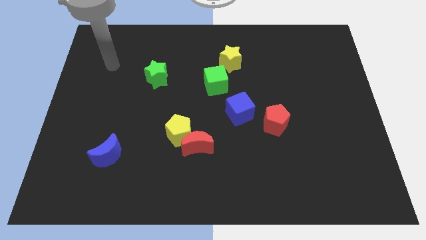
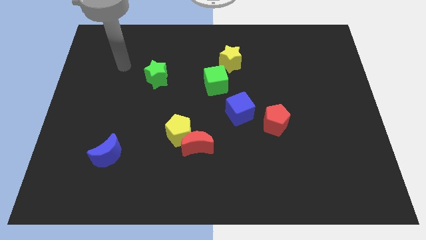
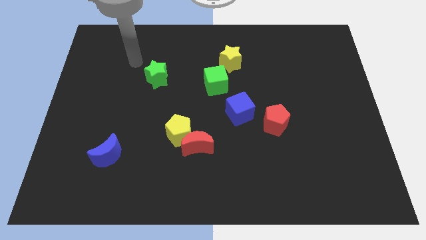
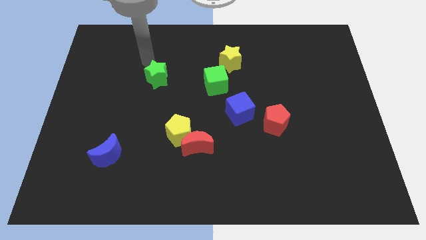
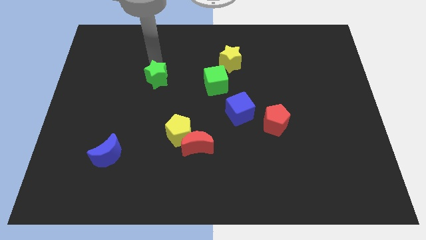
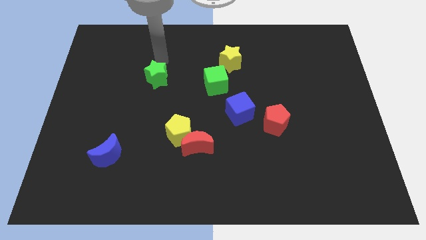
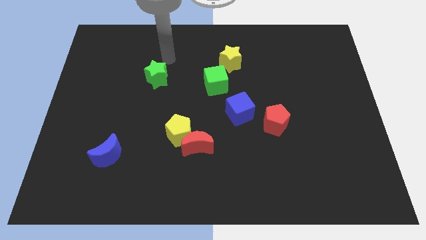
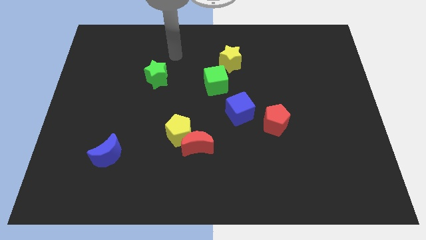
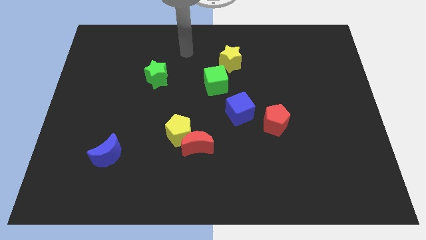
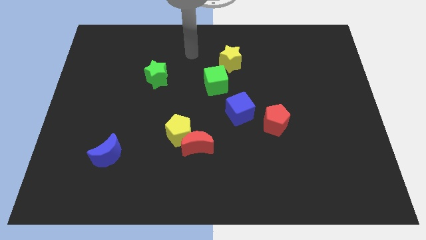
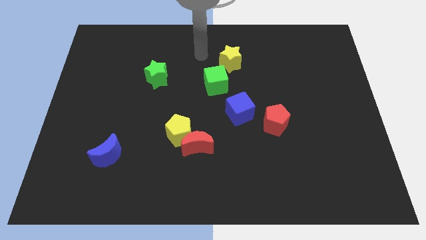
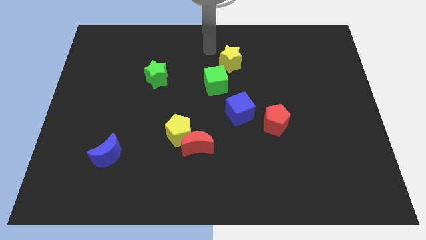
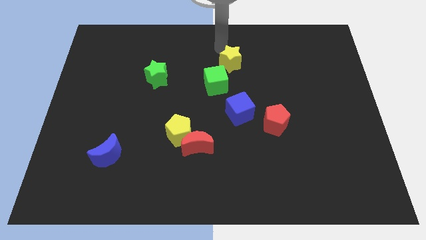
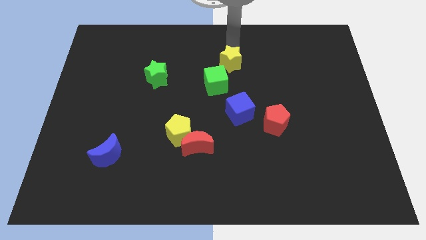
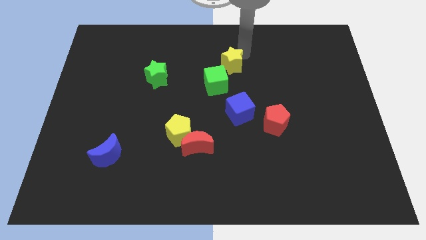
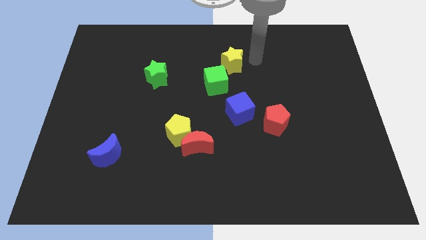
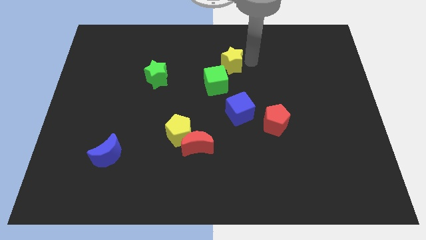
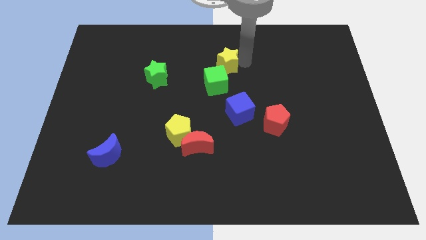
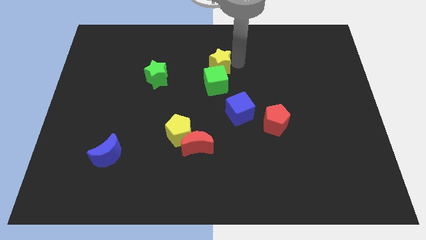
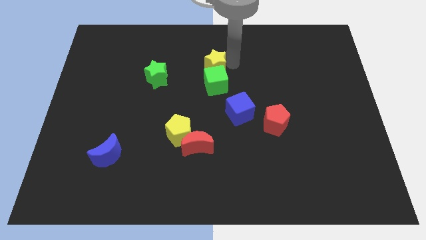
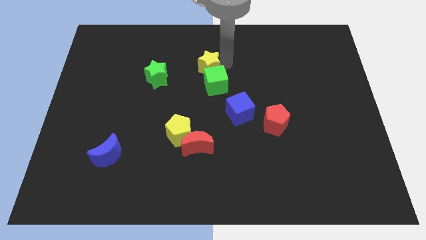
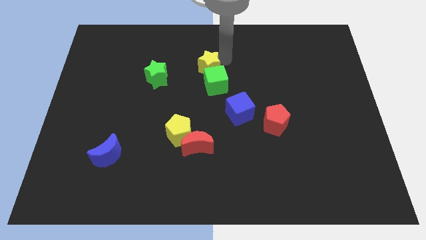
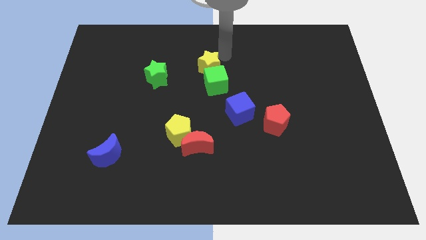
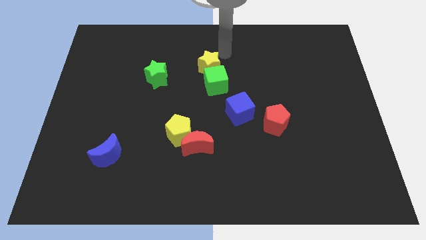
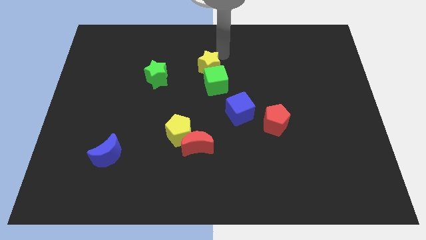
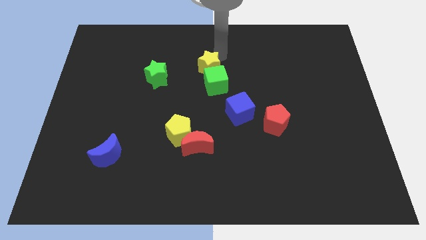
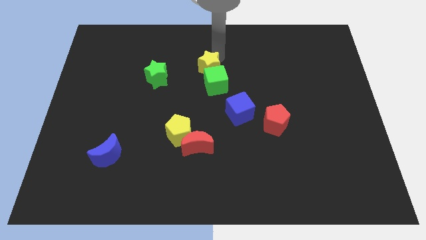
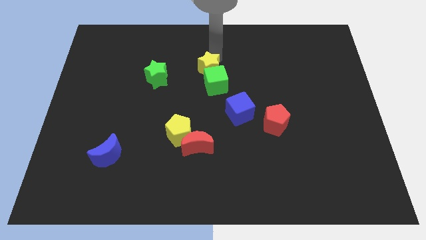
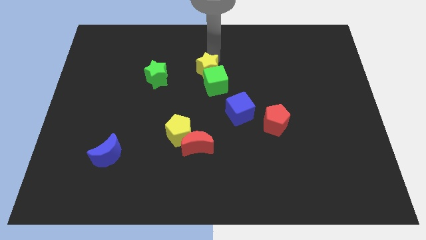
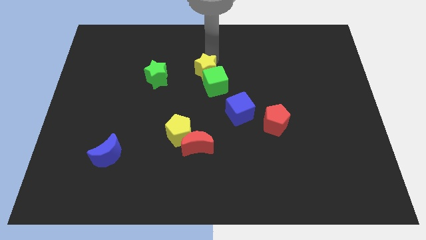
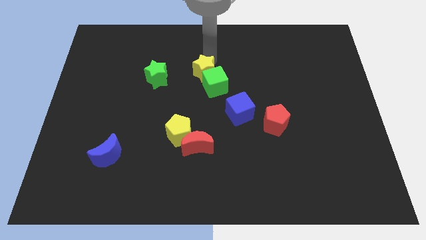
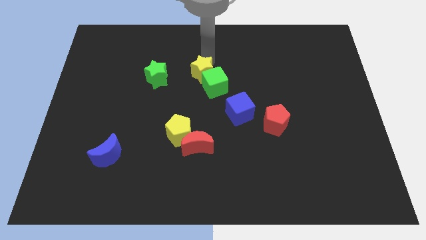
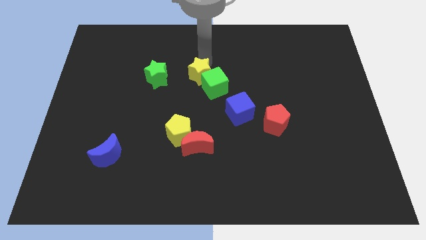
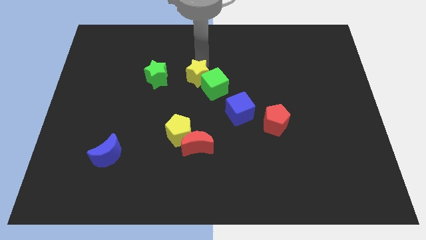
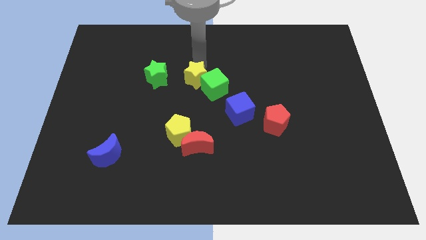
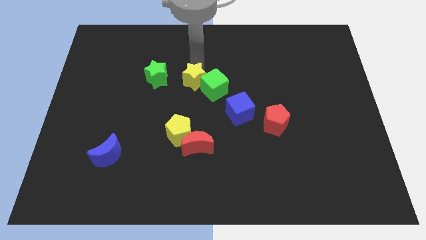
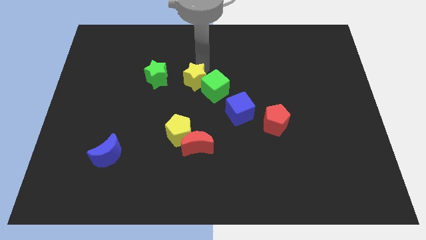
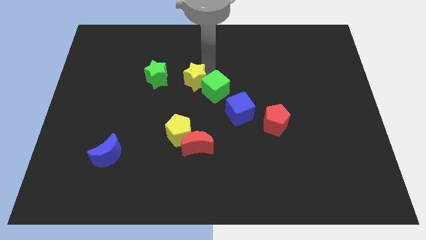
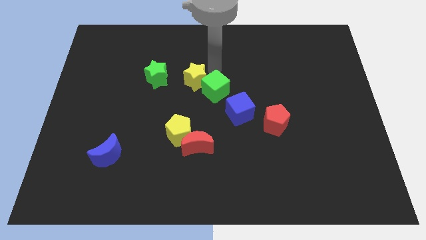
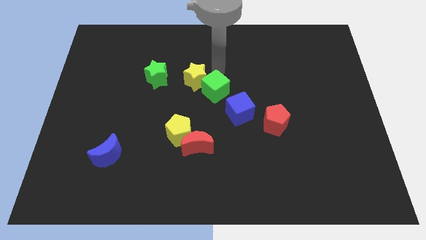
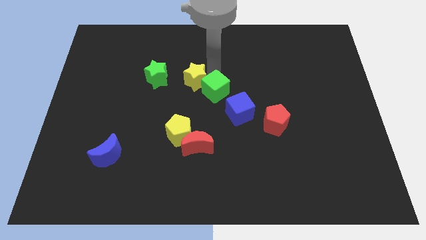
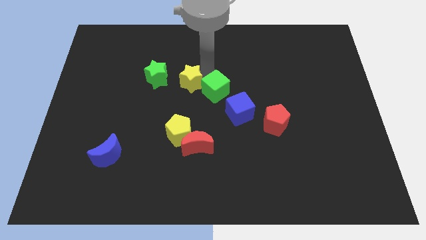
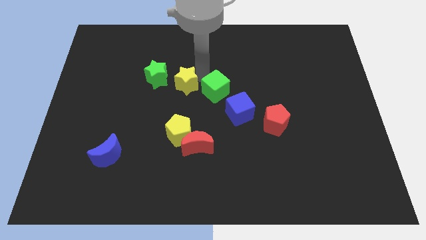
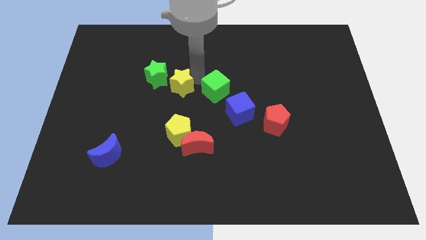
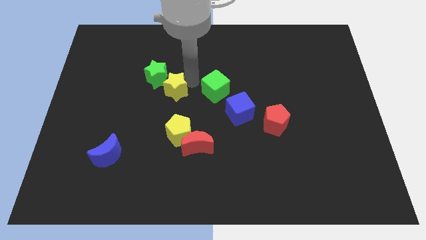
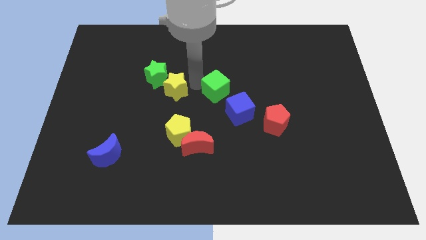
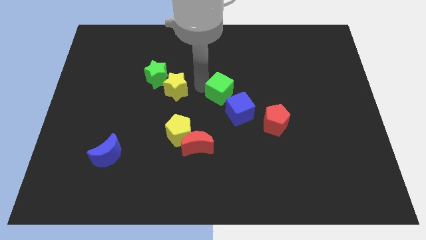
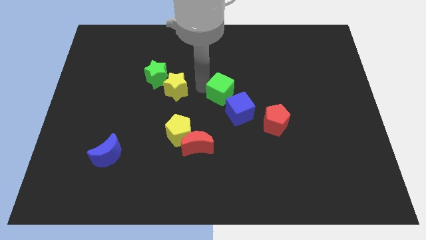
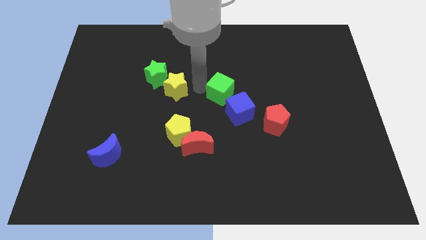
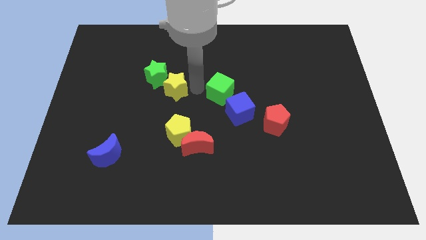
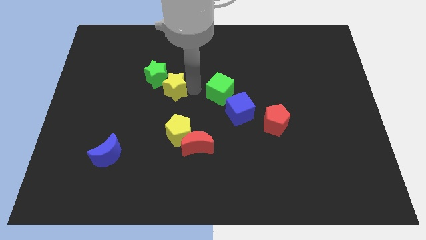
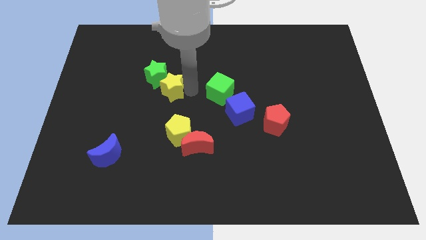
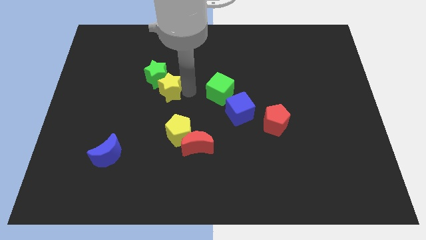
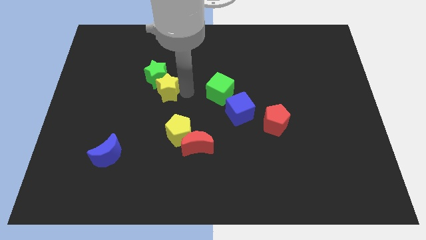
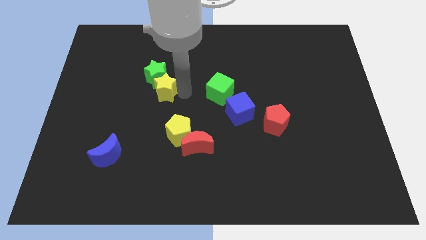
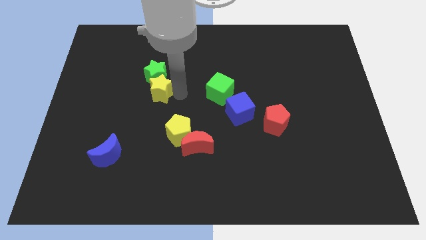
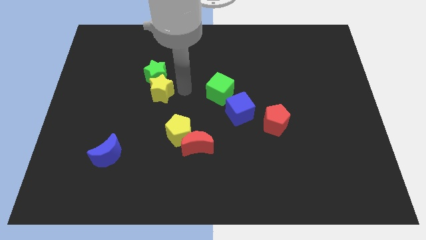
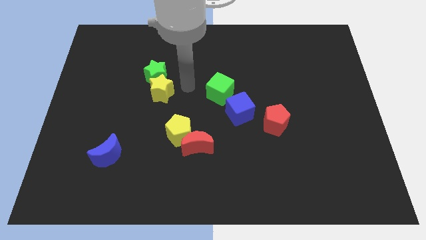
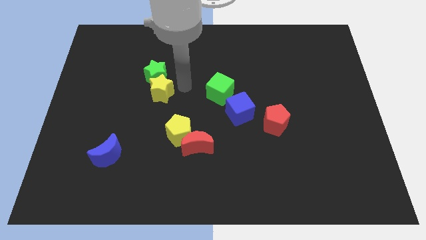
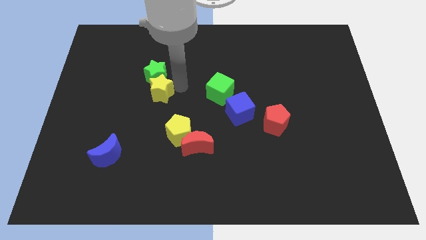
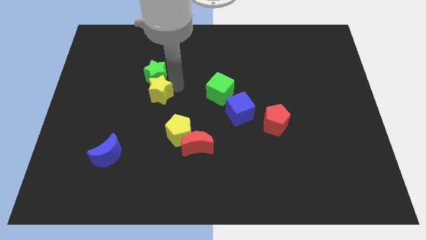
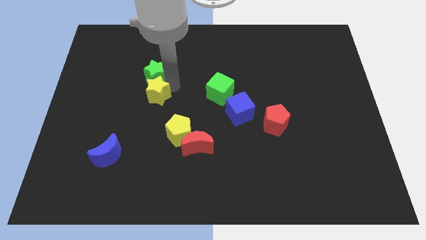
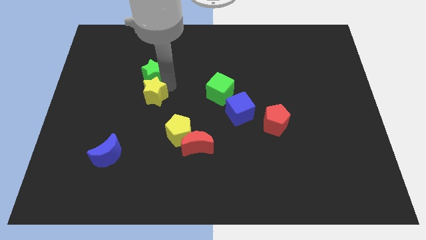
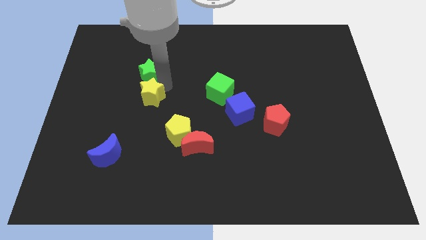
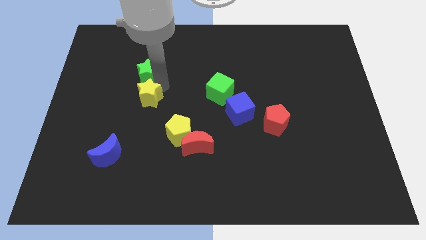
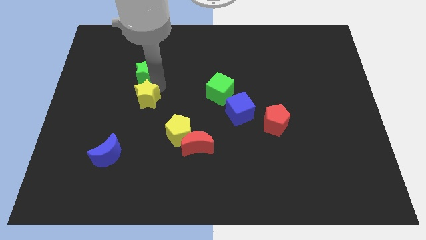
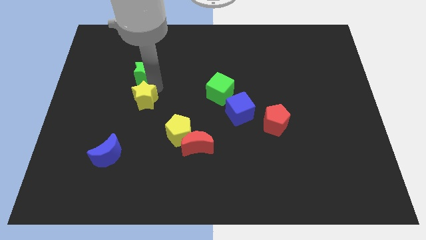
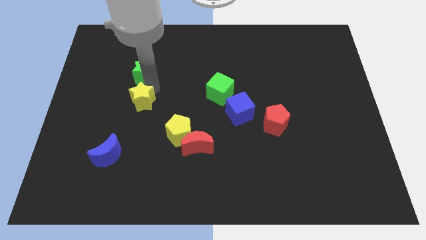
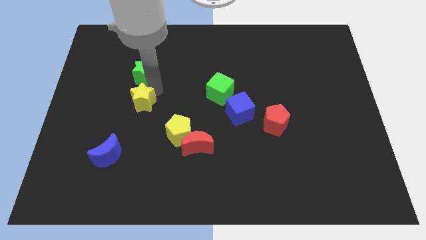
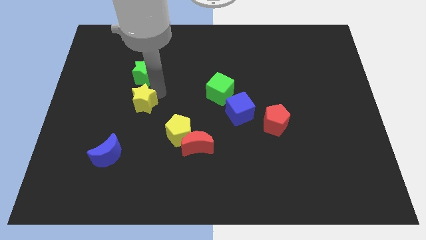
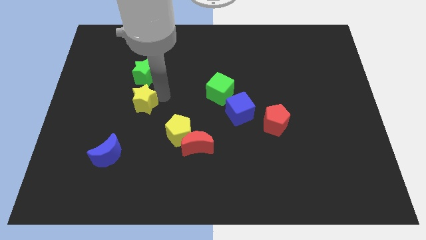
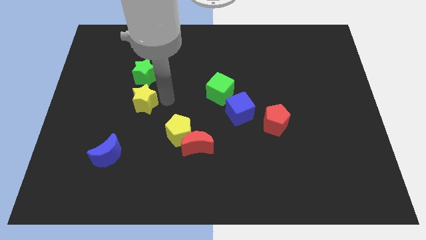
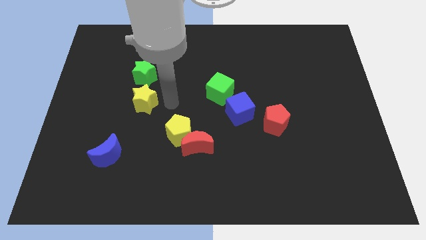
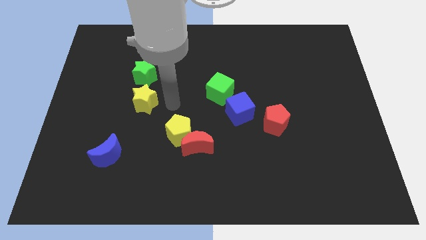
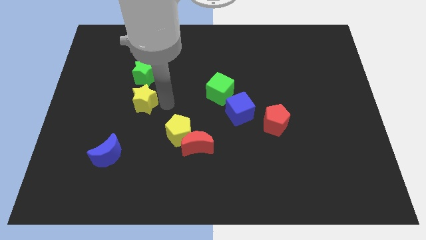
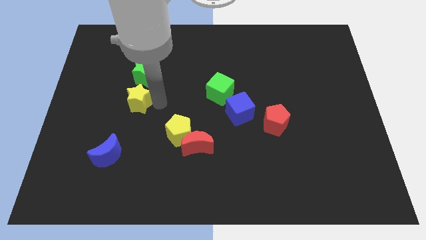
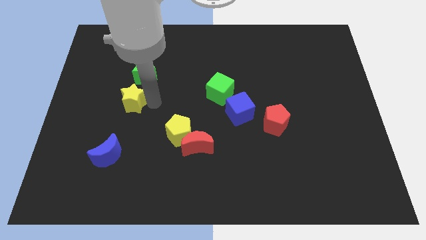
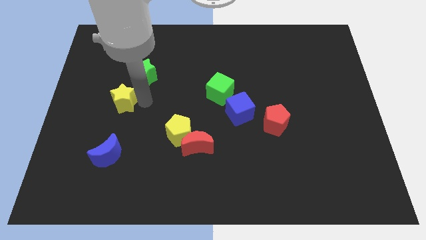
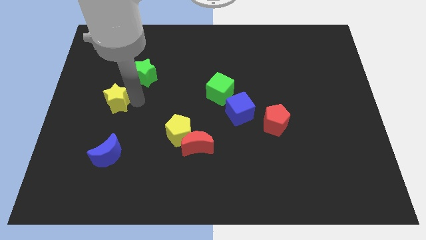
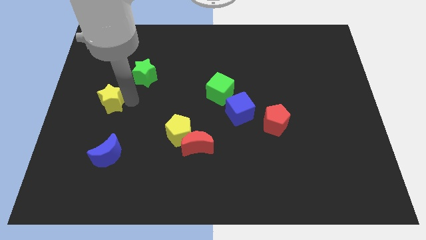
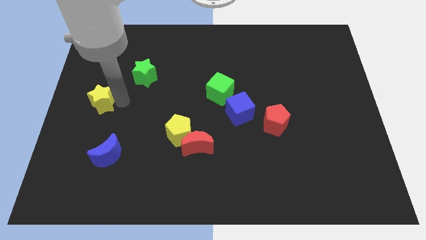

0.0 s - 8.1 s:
push the yellow star to the left side of the board
